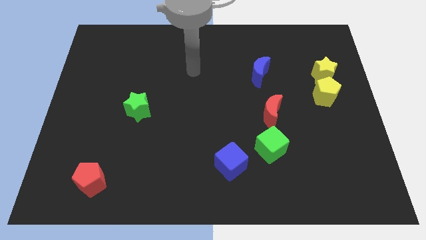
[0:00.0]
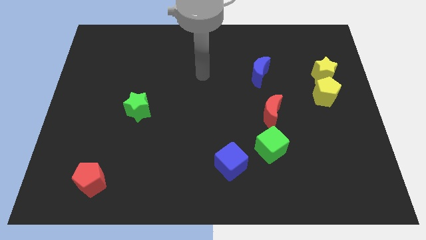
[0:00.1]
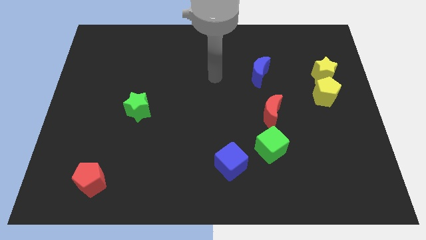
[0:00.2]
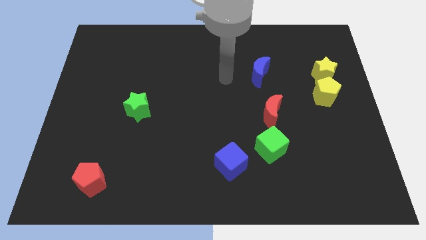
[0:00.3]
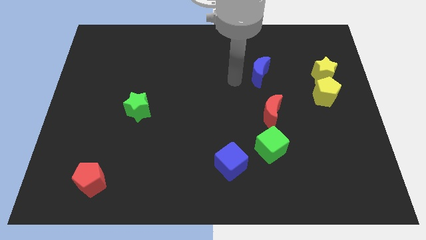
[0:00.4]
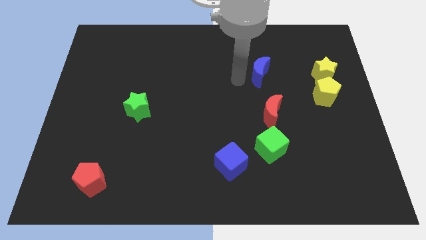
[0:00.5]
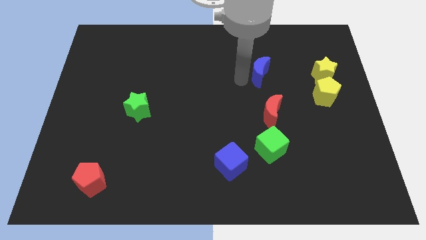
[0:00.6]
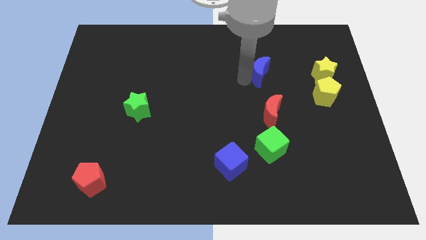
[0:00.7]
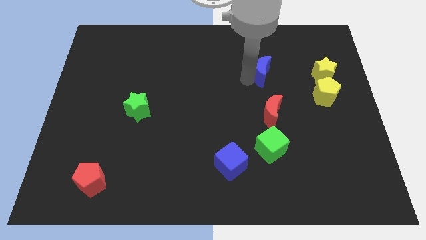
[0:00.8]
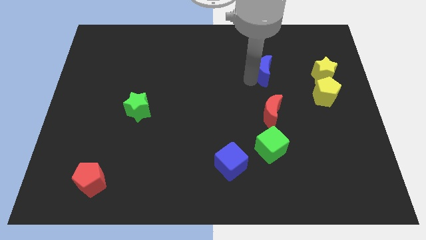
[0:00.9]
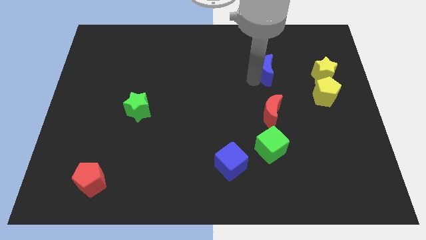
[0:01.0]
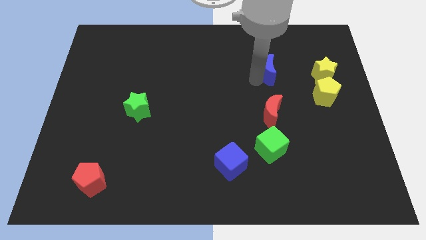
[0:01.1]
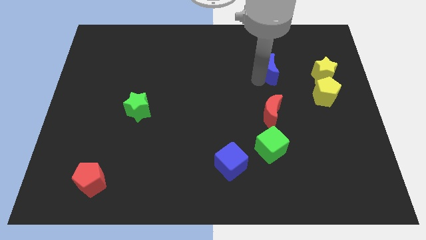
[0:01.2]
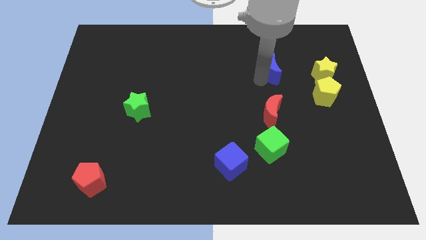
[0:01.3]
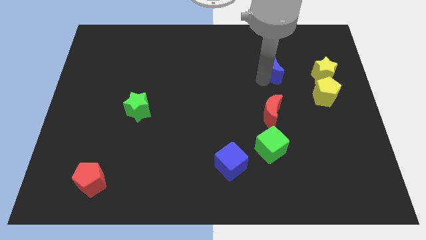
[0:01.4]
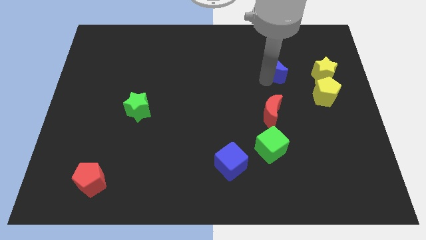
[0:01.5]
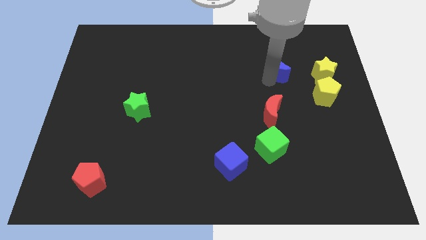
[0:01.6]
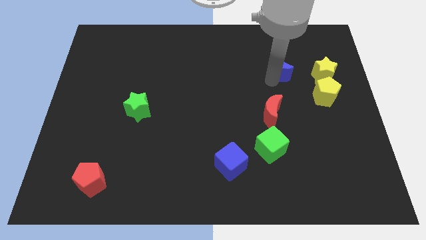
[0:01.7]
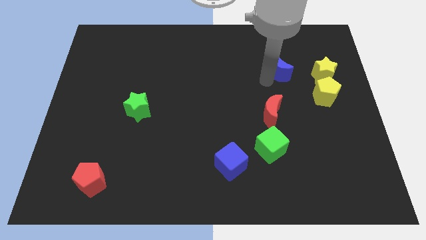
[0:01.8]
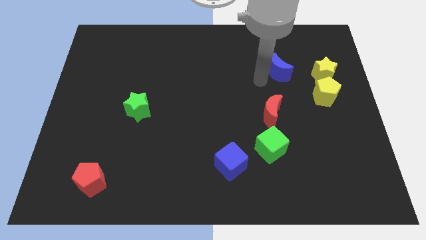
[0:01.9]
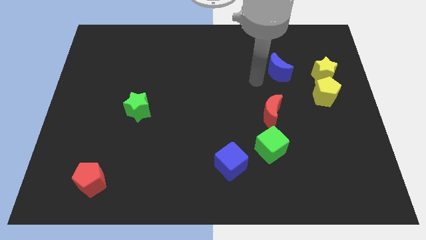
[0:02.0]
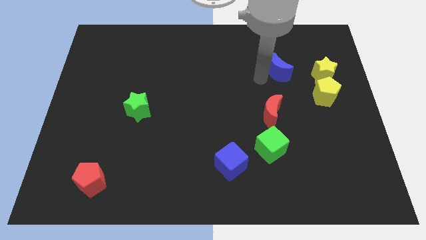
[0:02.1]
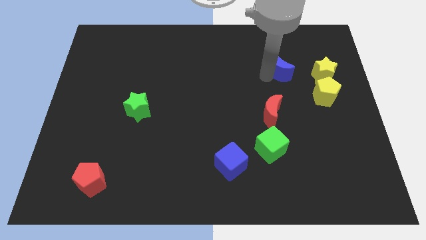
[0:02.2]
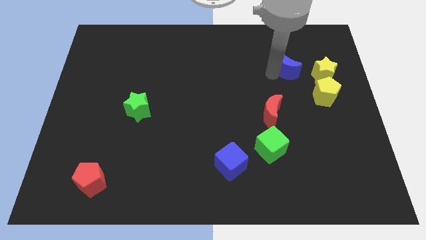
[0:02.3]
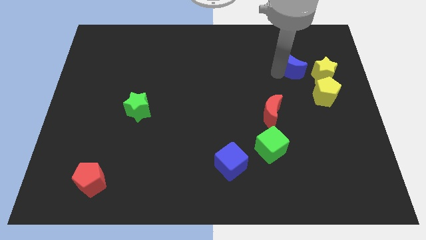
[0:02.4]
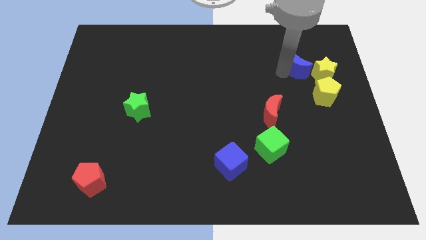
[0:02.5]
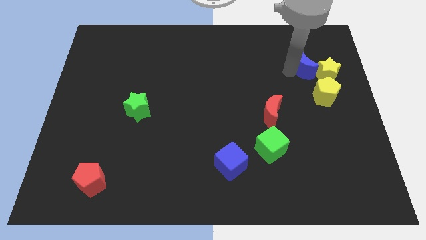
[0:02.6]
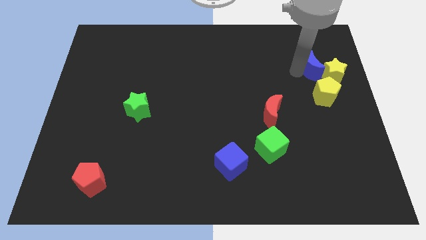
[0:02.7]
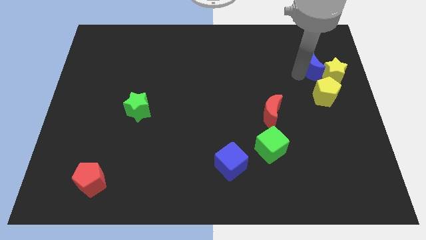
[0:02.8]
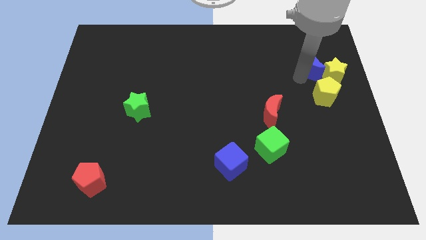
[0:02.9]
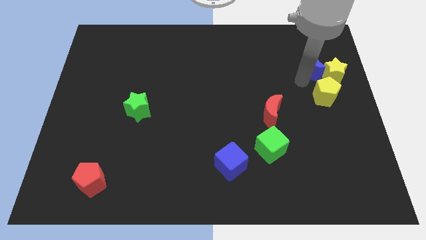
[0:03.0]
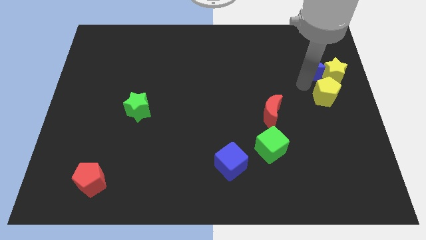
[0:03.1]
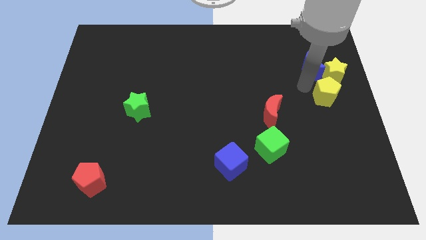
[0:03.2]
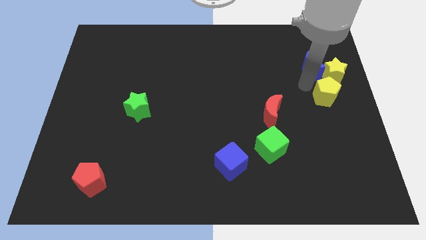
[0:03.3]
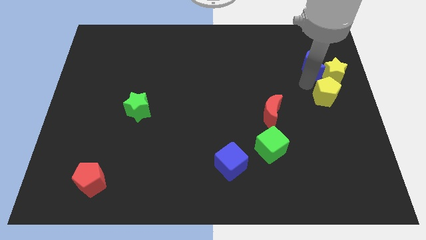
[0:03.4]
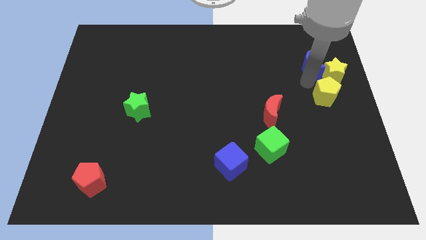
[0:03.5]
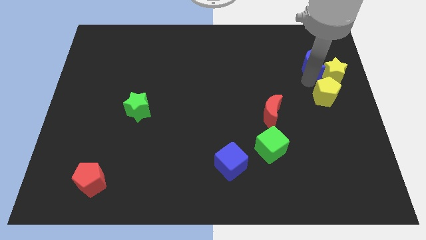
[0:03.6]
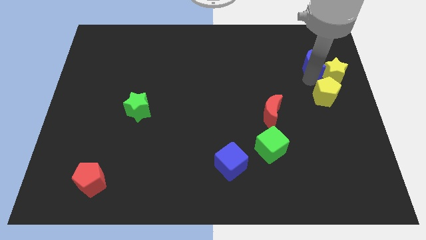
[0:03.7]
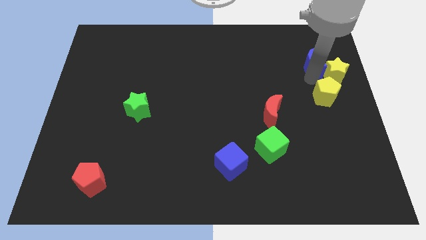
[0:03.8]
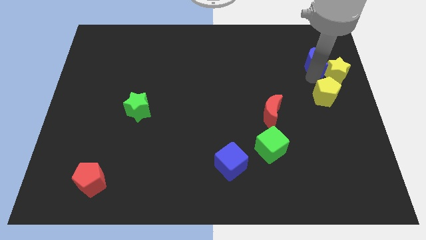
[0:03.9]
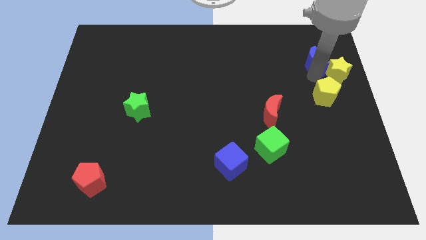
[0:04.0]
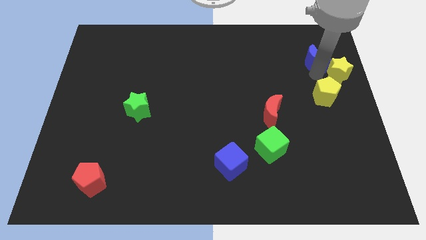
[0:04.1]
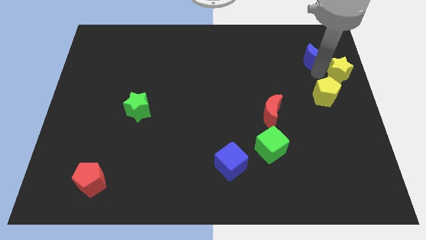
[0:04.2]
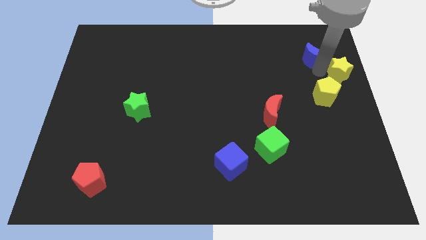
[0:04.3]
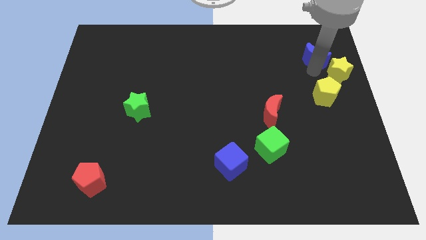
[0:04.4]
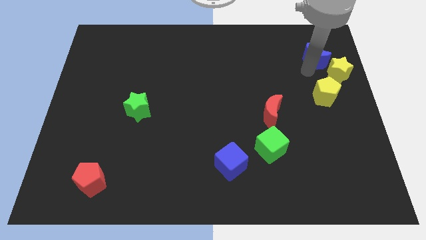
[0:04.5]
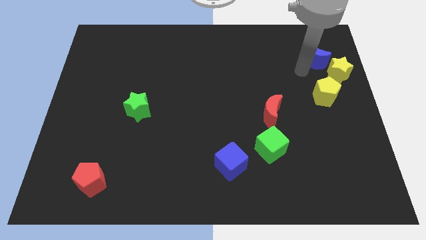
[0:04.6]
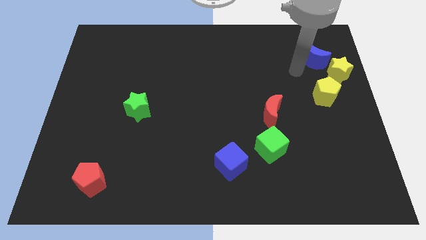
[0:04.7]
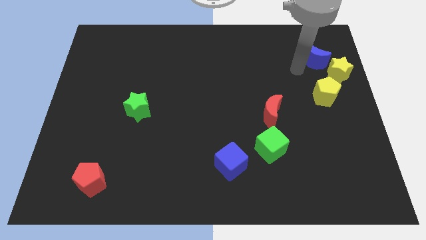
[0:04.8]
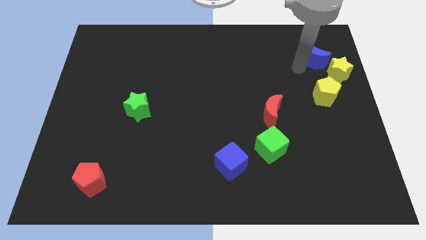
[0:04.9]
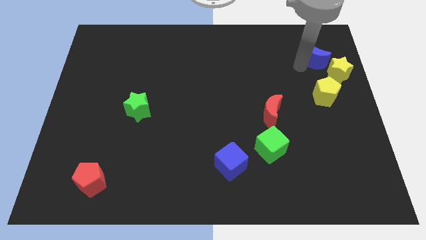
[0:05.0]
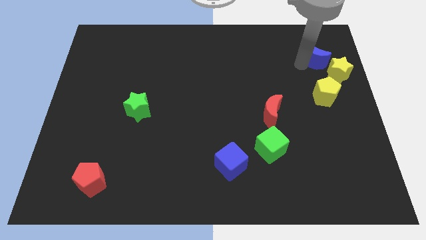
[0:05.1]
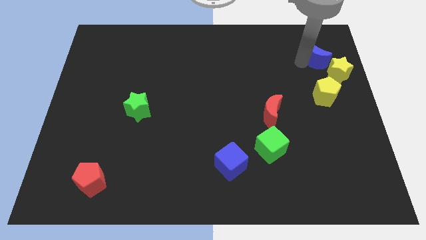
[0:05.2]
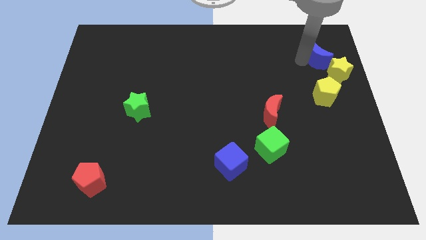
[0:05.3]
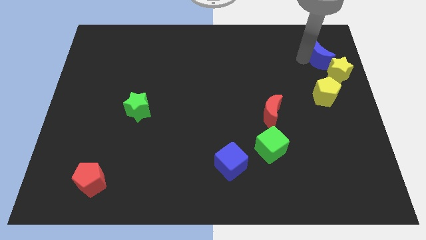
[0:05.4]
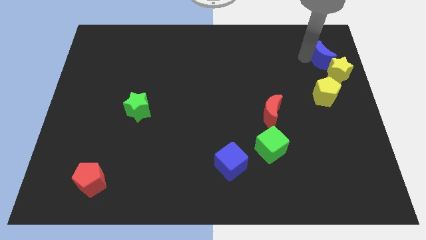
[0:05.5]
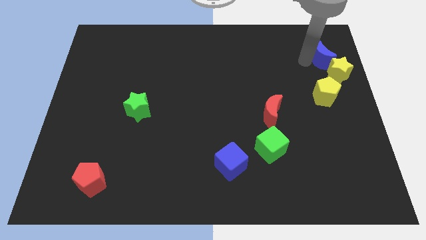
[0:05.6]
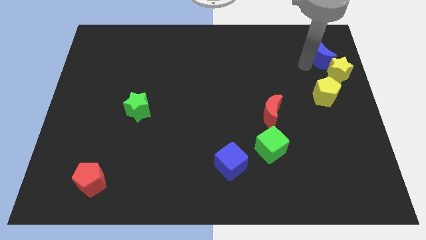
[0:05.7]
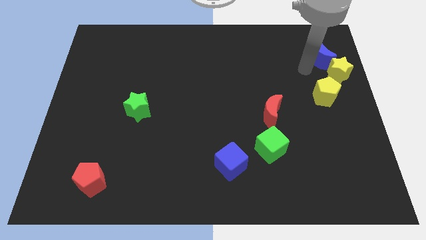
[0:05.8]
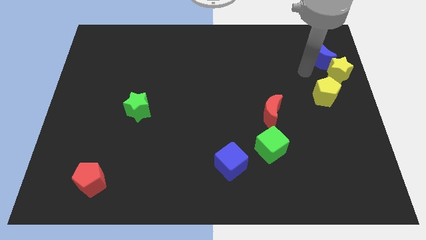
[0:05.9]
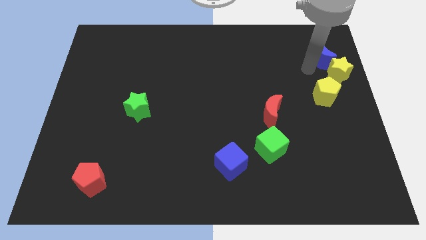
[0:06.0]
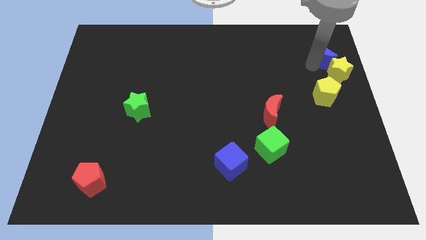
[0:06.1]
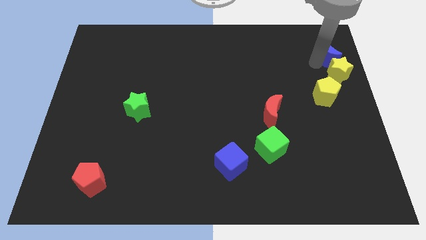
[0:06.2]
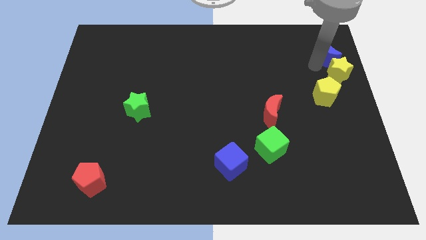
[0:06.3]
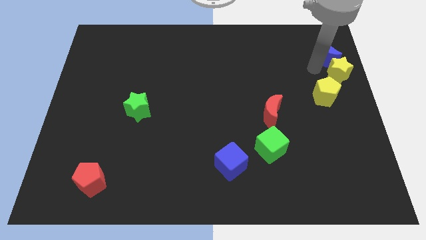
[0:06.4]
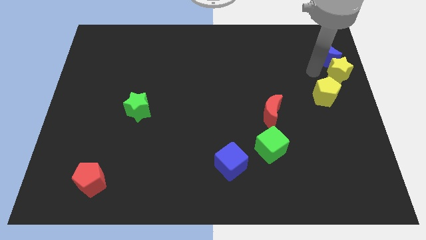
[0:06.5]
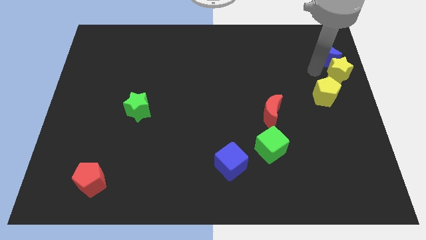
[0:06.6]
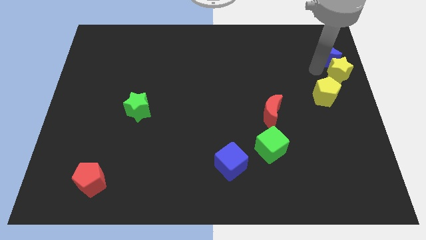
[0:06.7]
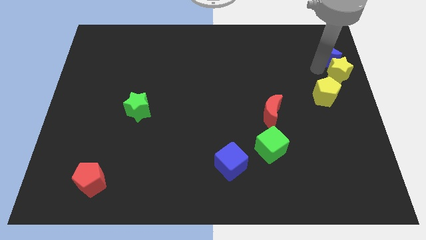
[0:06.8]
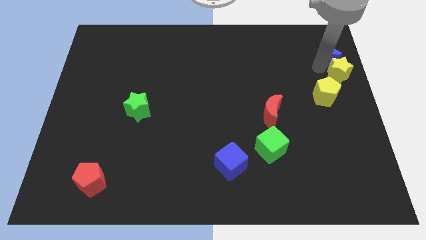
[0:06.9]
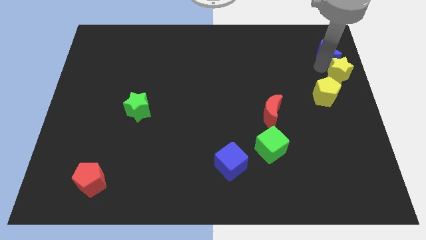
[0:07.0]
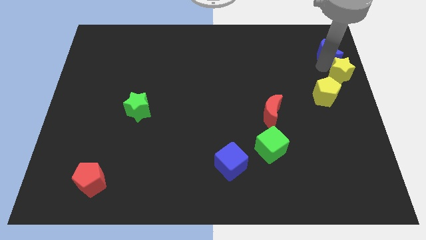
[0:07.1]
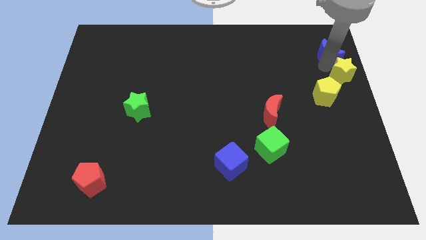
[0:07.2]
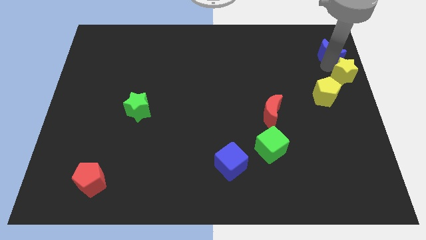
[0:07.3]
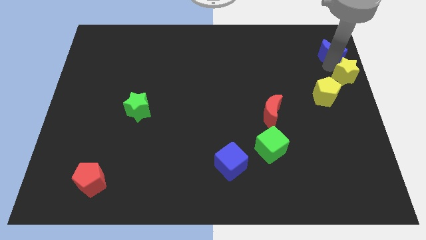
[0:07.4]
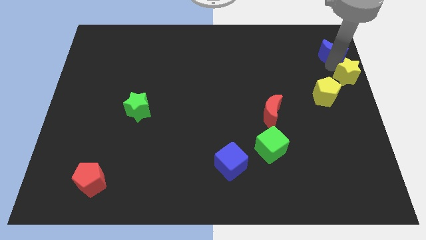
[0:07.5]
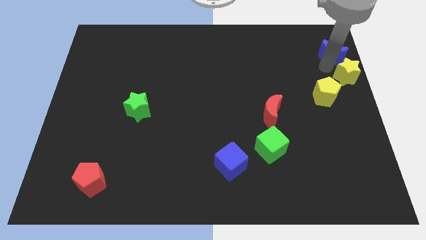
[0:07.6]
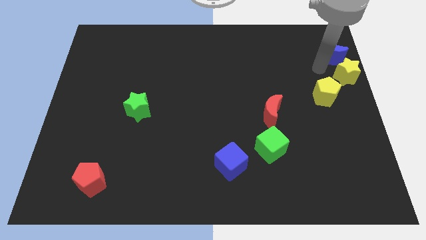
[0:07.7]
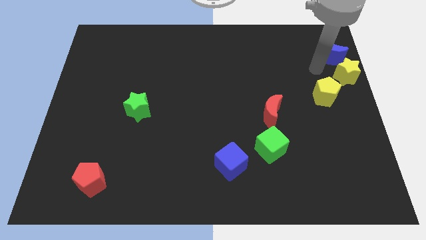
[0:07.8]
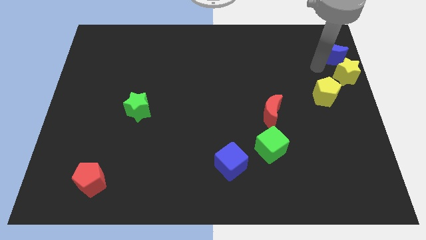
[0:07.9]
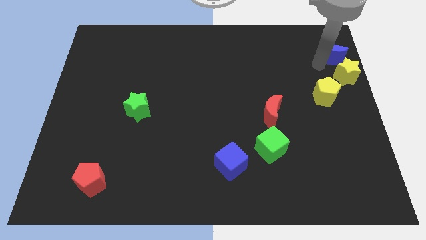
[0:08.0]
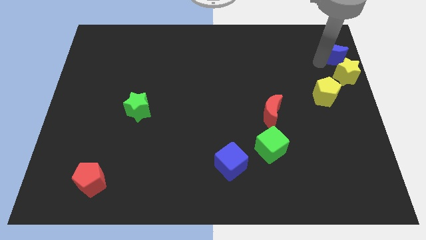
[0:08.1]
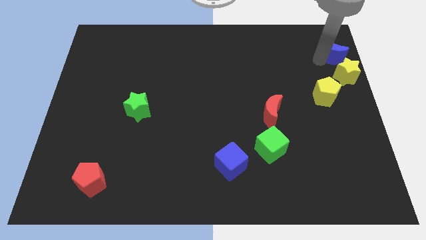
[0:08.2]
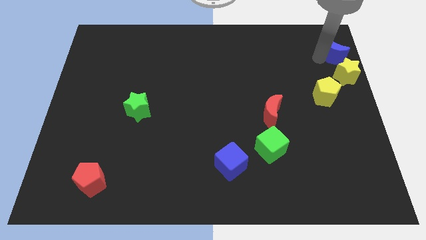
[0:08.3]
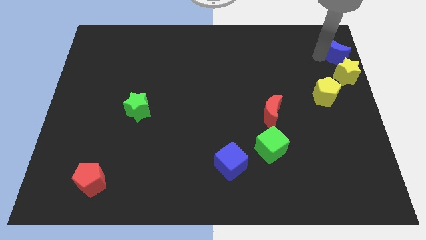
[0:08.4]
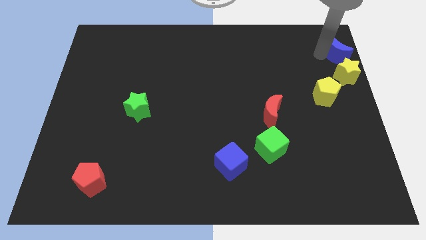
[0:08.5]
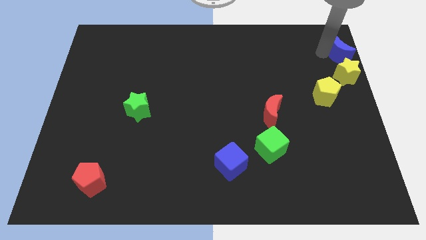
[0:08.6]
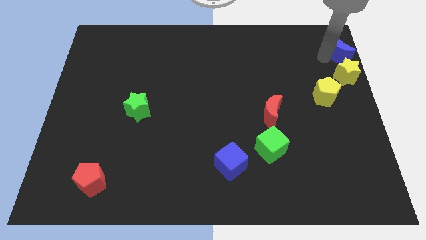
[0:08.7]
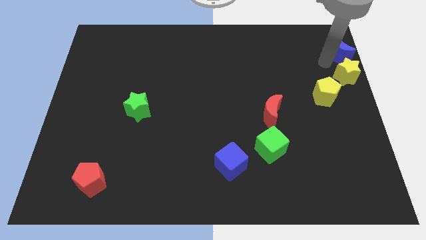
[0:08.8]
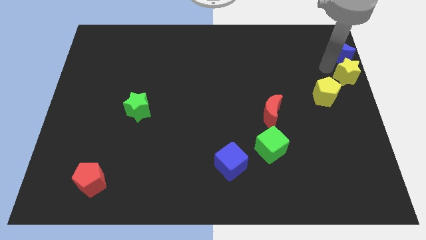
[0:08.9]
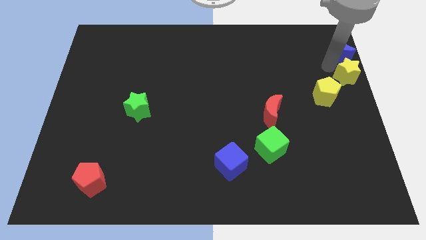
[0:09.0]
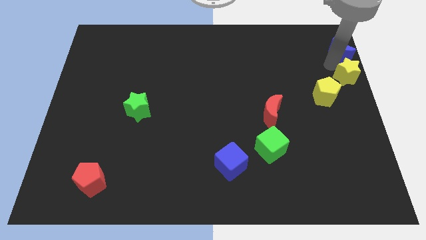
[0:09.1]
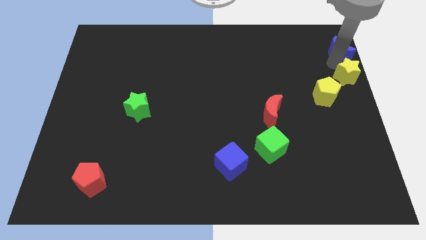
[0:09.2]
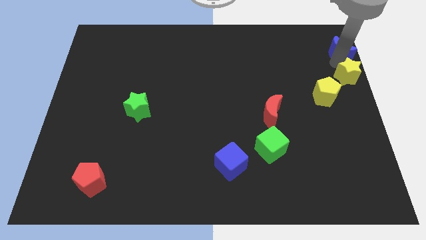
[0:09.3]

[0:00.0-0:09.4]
slide the blue moon to the top right corner
